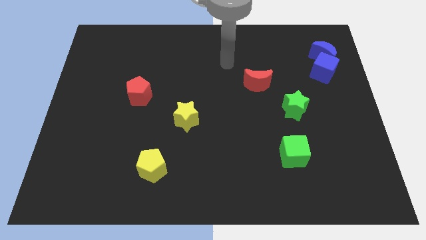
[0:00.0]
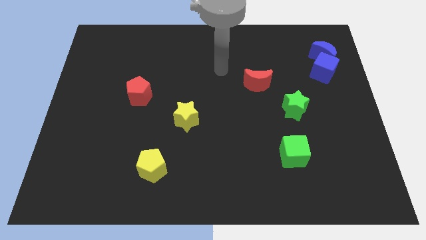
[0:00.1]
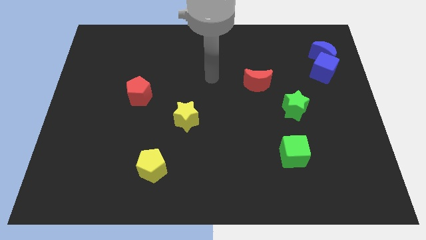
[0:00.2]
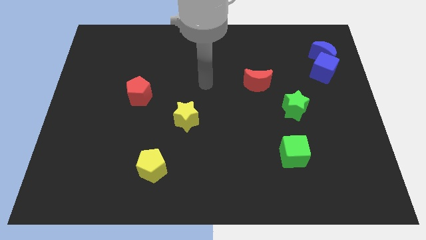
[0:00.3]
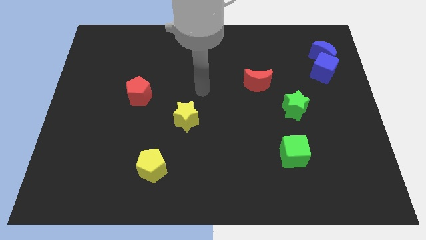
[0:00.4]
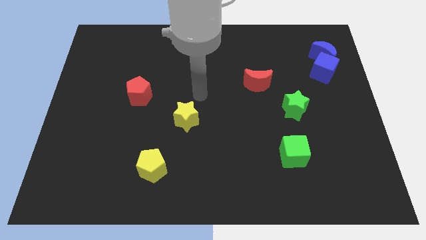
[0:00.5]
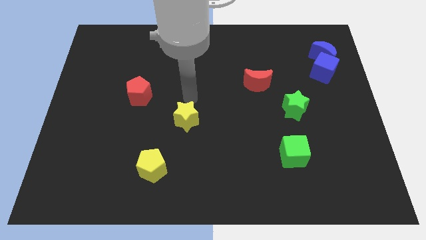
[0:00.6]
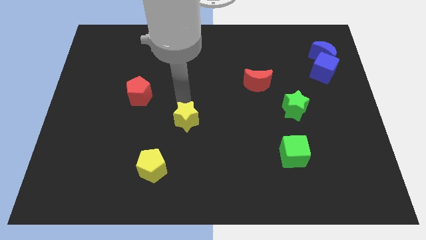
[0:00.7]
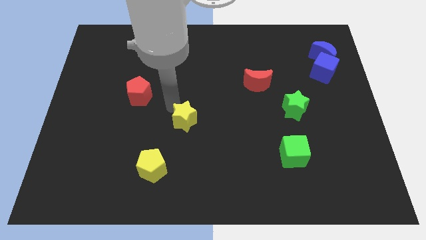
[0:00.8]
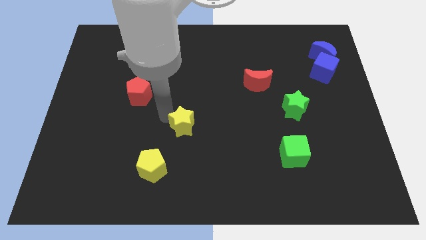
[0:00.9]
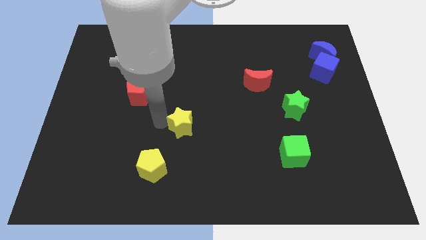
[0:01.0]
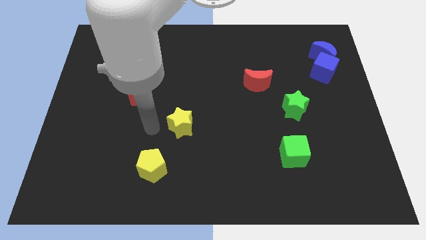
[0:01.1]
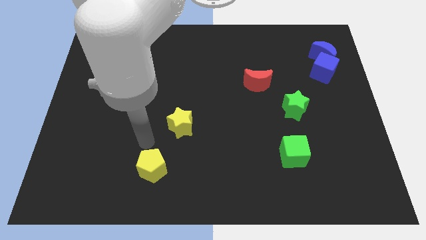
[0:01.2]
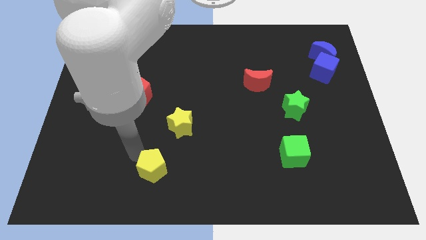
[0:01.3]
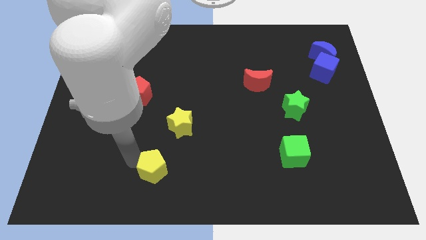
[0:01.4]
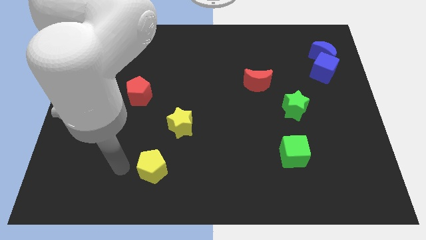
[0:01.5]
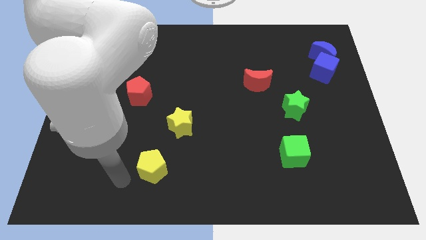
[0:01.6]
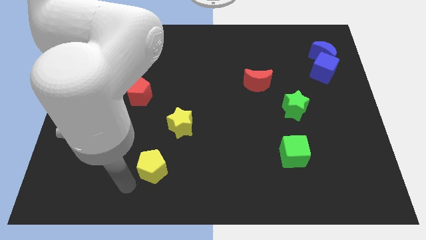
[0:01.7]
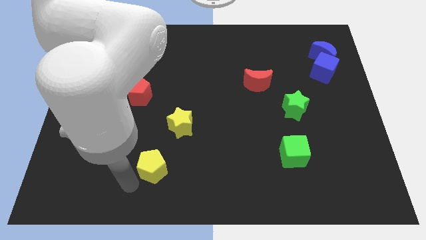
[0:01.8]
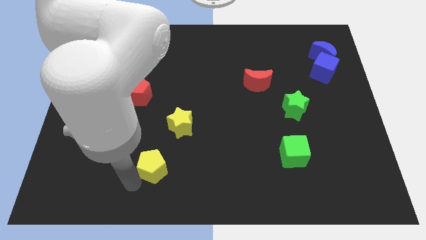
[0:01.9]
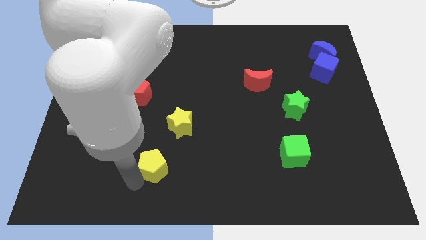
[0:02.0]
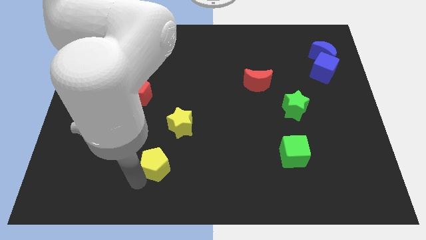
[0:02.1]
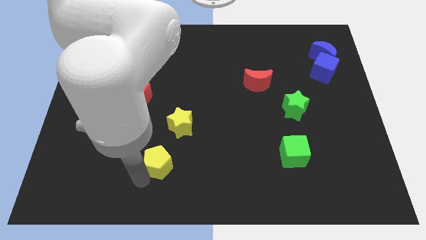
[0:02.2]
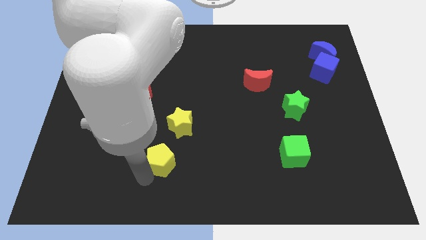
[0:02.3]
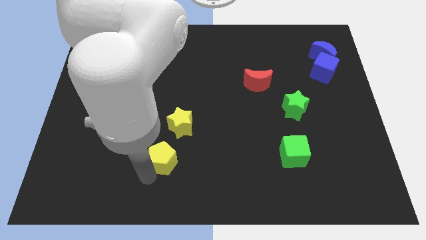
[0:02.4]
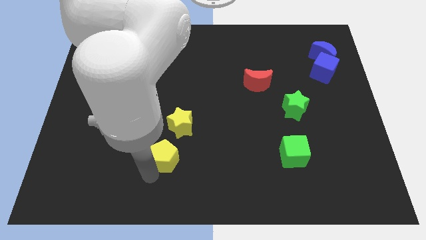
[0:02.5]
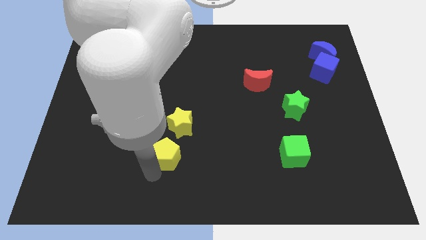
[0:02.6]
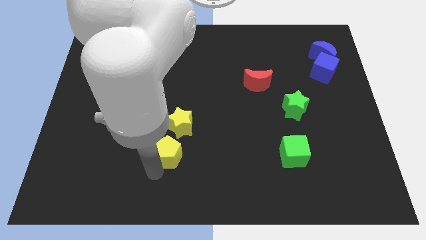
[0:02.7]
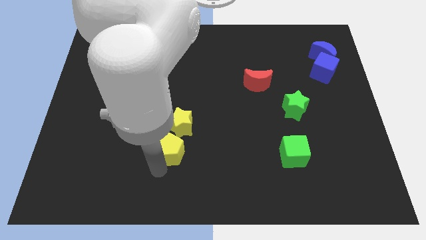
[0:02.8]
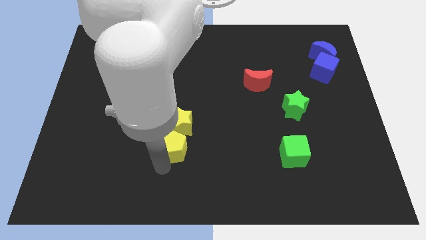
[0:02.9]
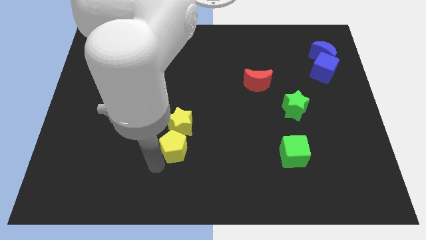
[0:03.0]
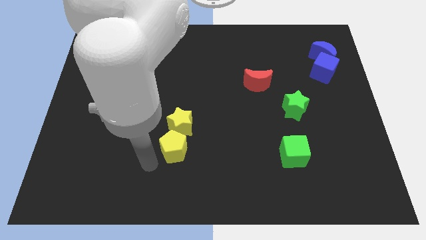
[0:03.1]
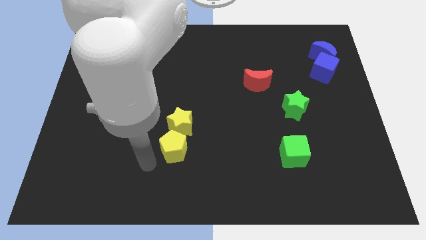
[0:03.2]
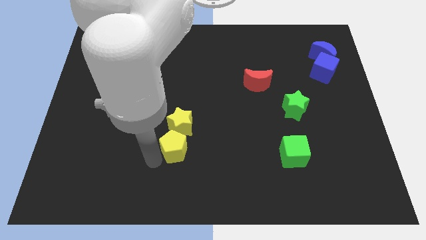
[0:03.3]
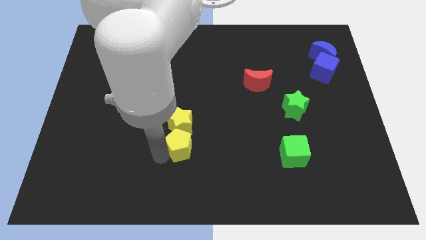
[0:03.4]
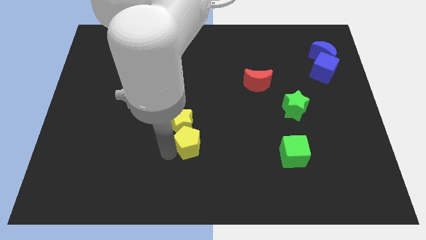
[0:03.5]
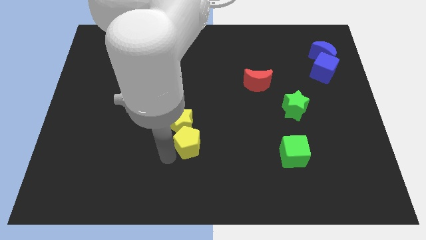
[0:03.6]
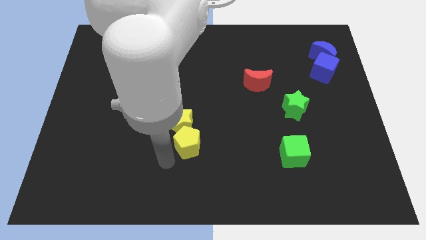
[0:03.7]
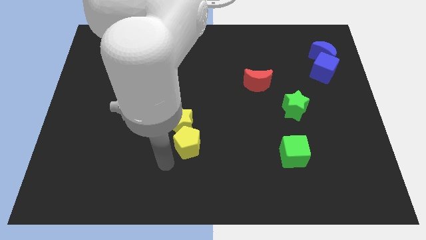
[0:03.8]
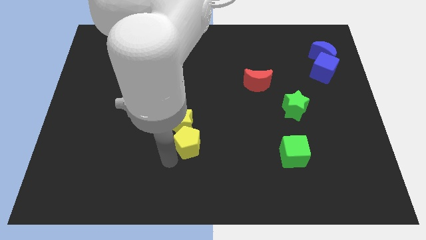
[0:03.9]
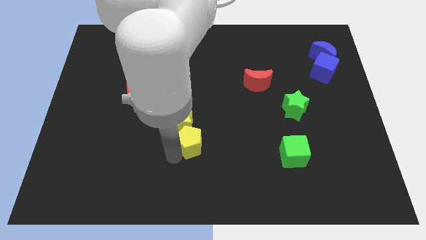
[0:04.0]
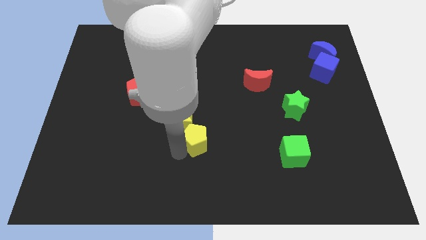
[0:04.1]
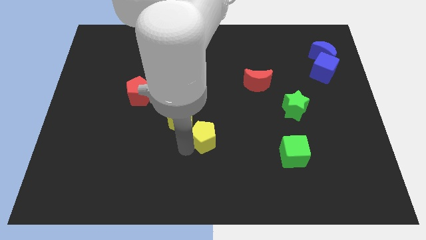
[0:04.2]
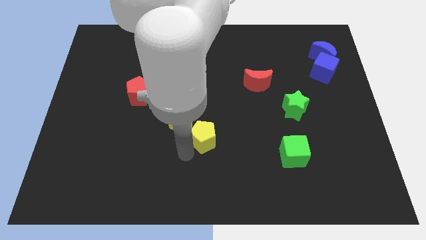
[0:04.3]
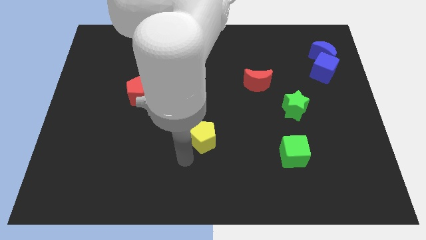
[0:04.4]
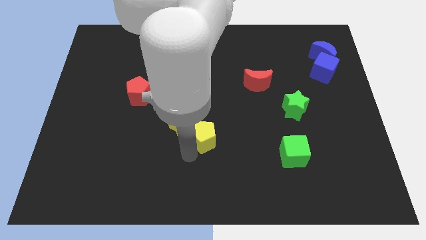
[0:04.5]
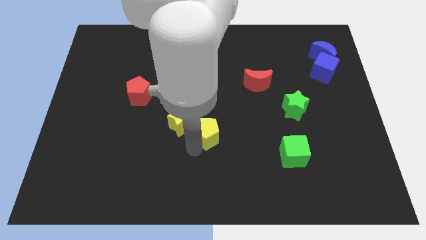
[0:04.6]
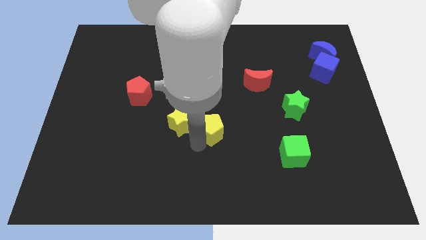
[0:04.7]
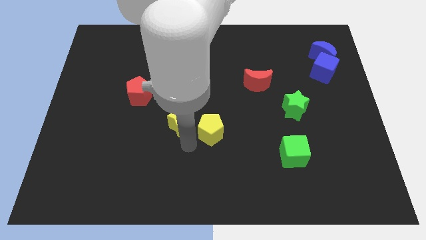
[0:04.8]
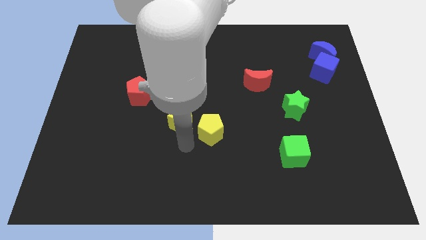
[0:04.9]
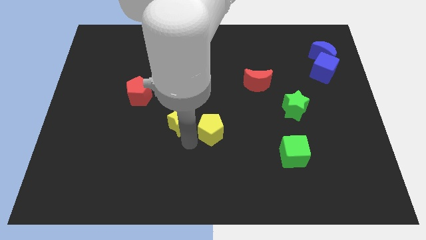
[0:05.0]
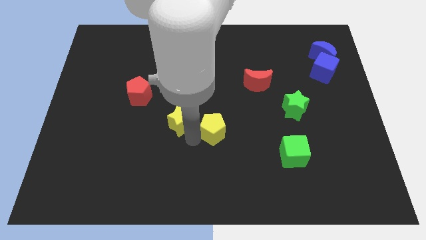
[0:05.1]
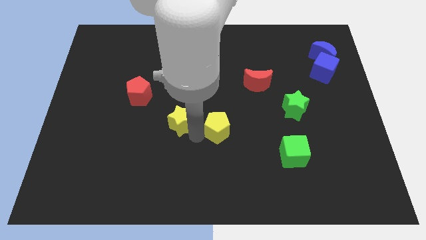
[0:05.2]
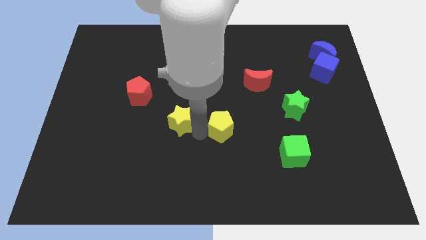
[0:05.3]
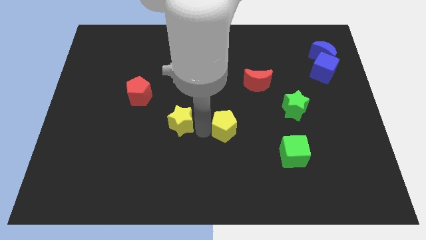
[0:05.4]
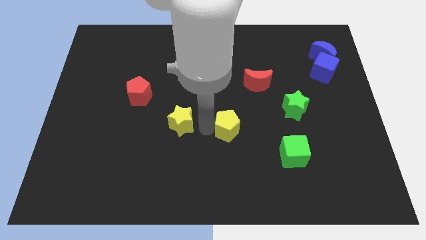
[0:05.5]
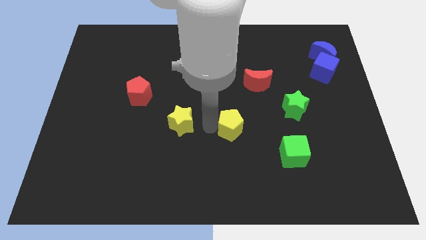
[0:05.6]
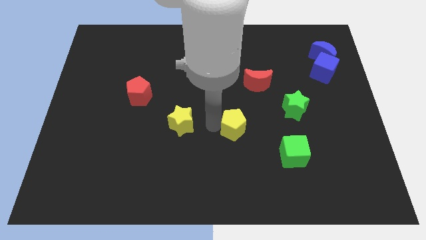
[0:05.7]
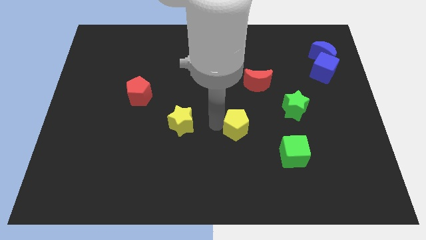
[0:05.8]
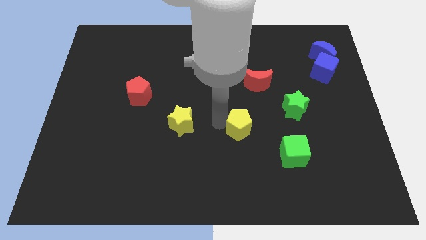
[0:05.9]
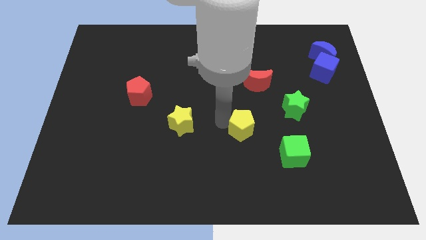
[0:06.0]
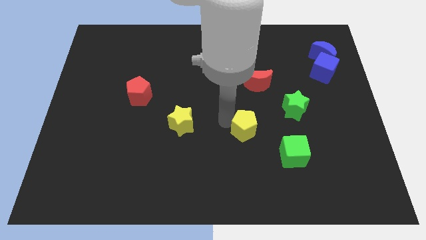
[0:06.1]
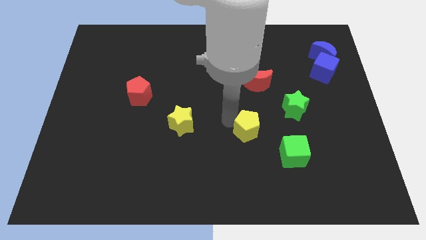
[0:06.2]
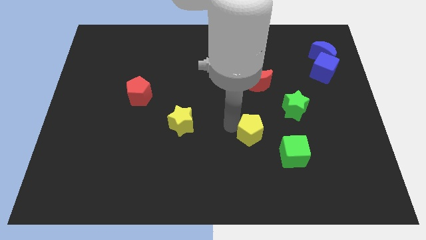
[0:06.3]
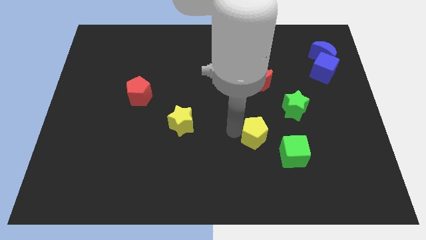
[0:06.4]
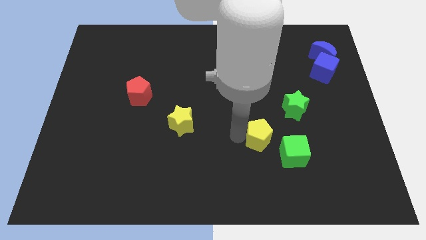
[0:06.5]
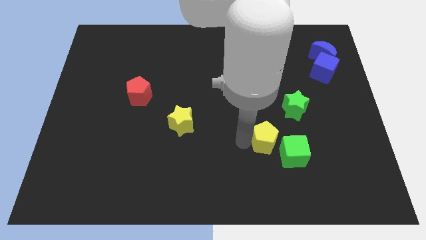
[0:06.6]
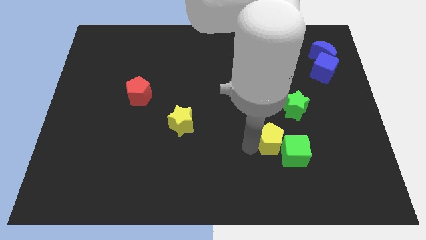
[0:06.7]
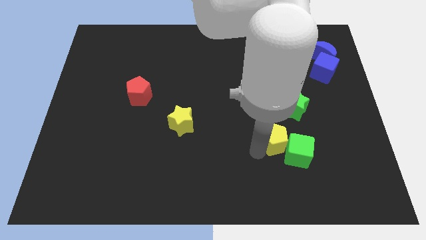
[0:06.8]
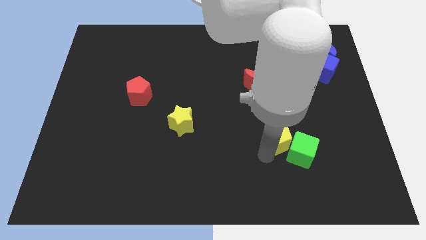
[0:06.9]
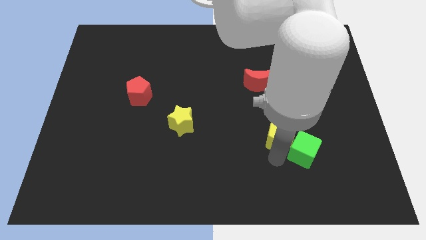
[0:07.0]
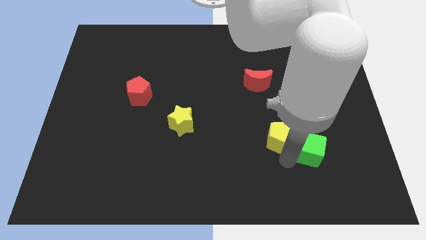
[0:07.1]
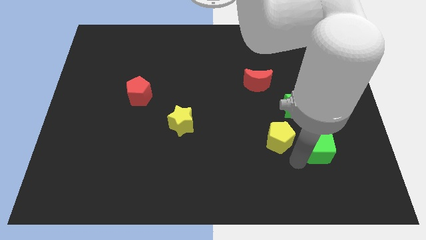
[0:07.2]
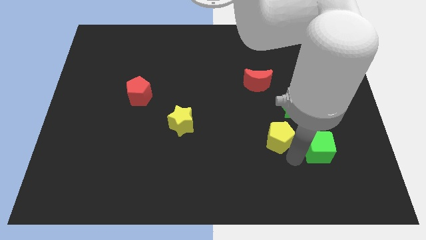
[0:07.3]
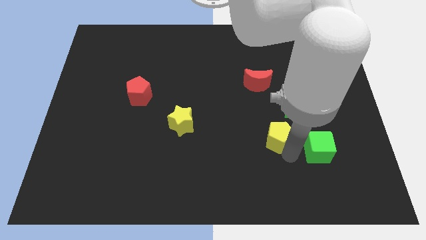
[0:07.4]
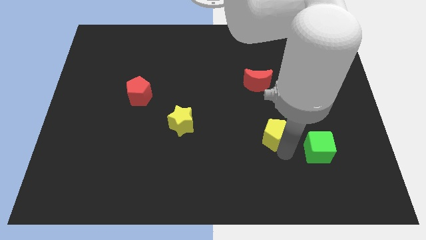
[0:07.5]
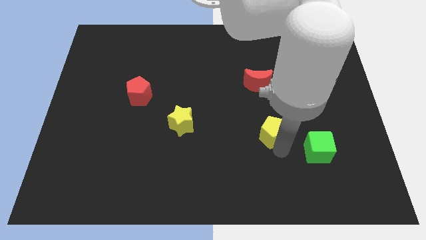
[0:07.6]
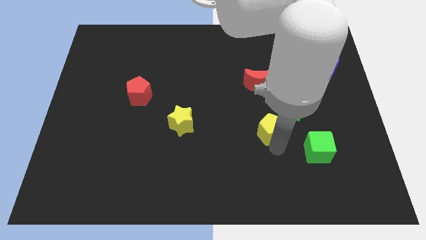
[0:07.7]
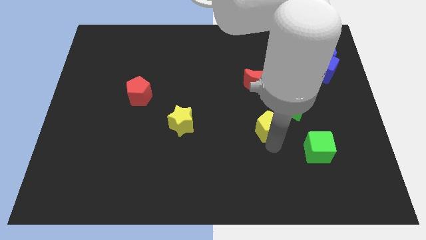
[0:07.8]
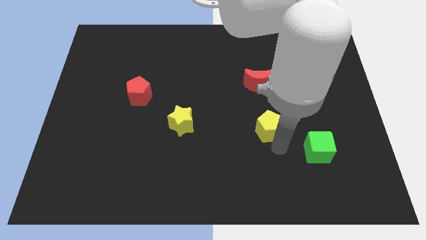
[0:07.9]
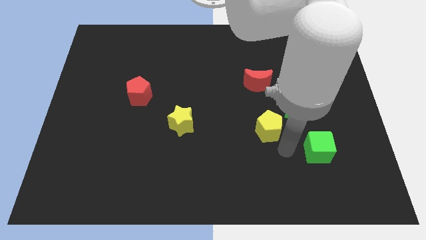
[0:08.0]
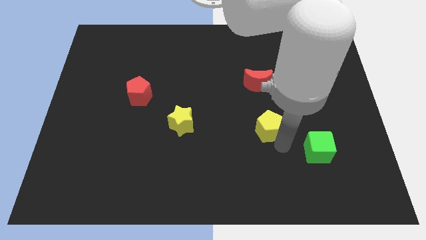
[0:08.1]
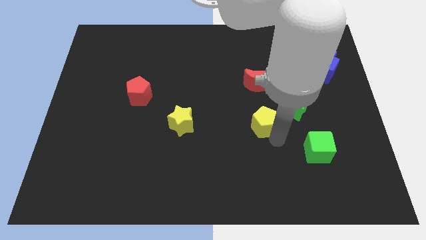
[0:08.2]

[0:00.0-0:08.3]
put the yellow pentagon just left of the green star
